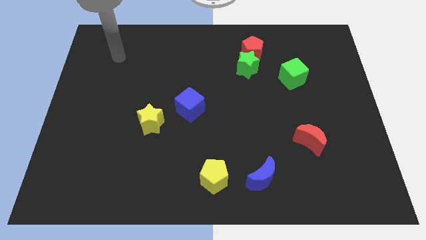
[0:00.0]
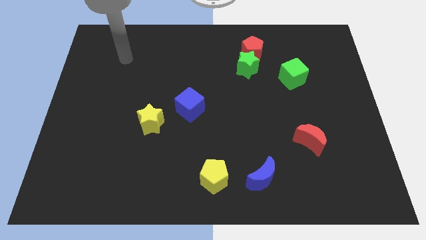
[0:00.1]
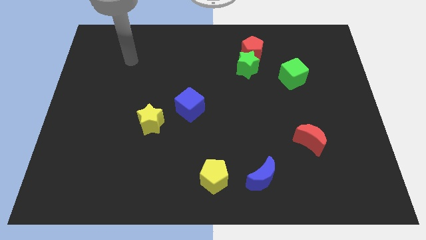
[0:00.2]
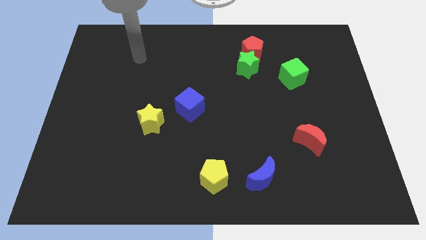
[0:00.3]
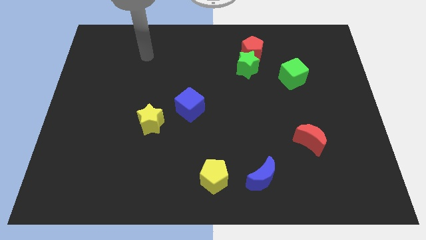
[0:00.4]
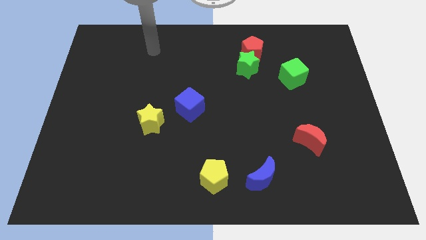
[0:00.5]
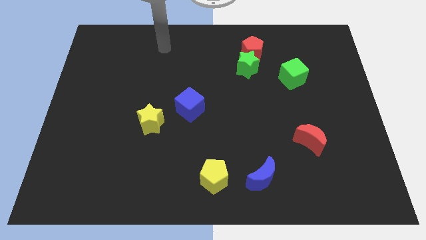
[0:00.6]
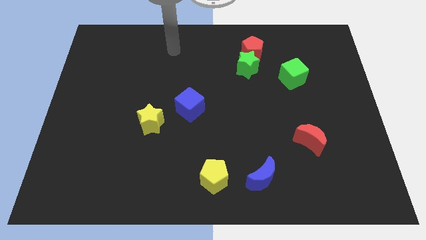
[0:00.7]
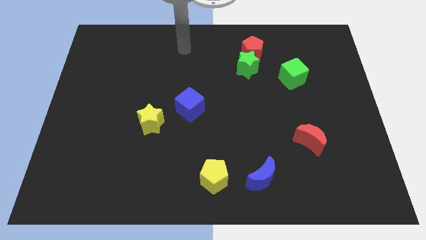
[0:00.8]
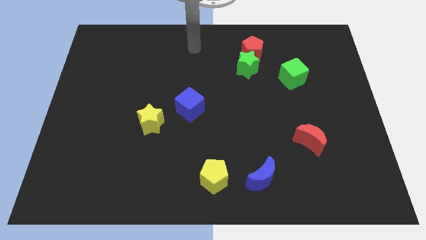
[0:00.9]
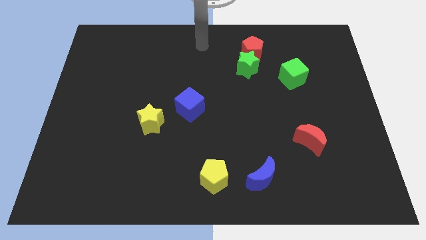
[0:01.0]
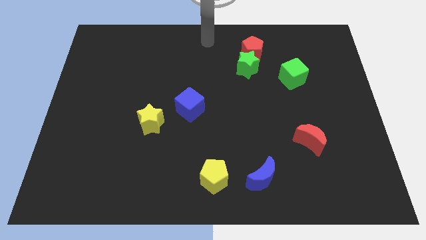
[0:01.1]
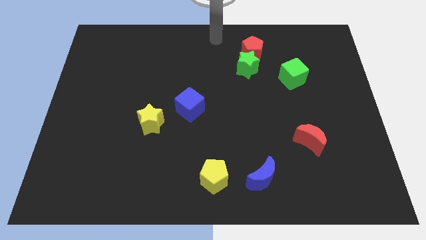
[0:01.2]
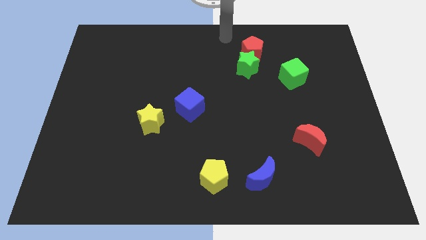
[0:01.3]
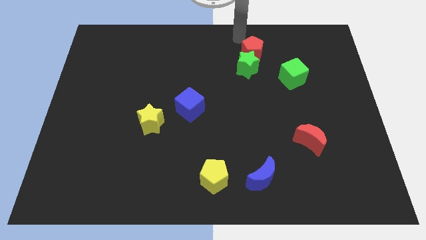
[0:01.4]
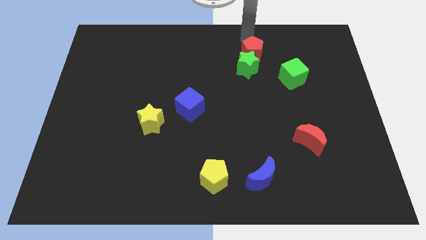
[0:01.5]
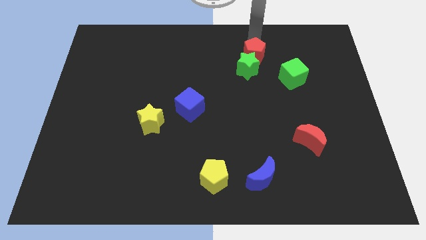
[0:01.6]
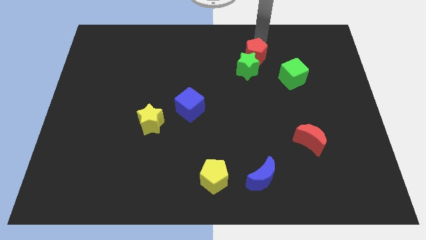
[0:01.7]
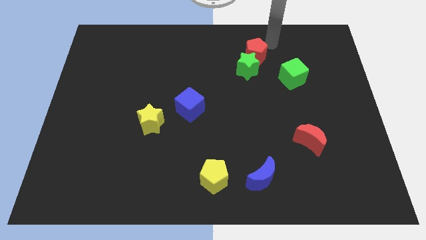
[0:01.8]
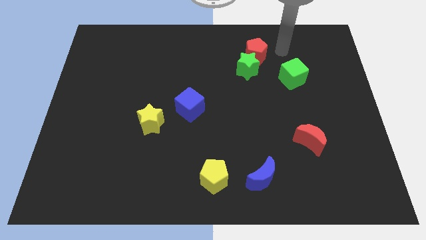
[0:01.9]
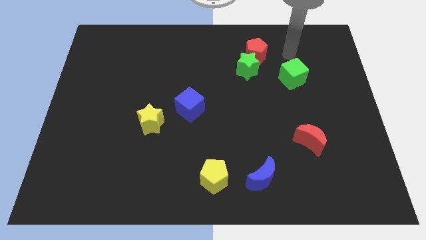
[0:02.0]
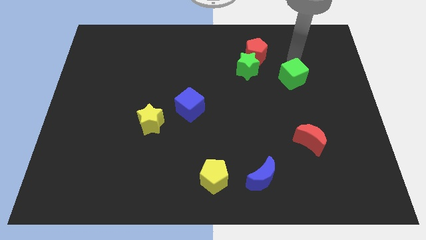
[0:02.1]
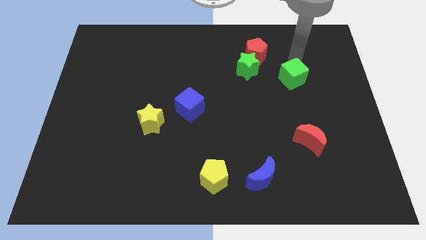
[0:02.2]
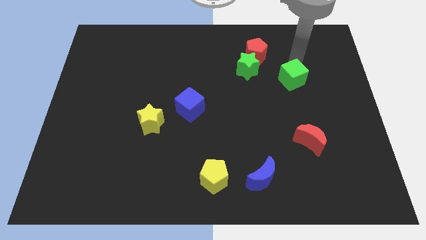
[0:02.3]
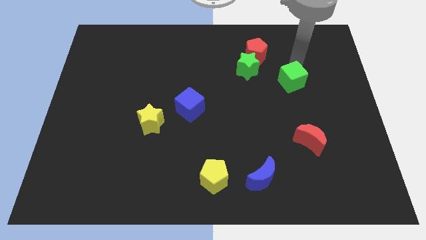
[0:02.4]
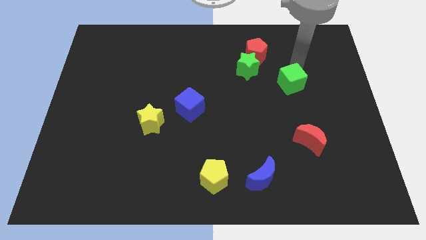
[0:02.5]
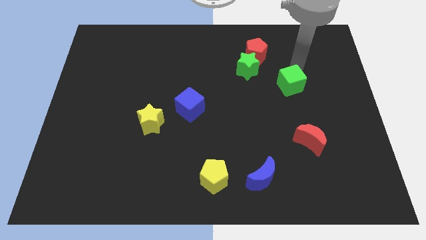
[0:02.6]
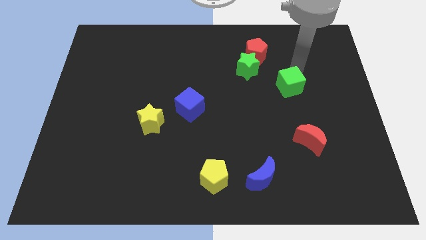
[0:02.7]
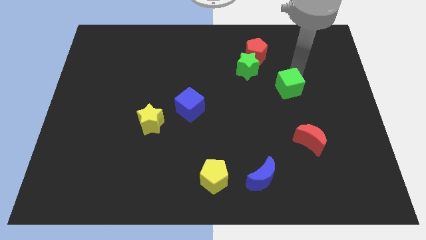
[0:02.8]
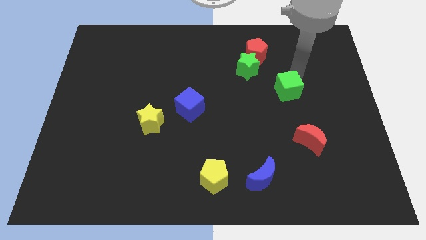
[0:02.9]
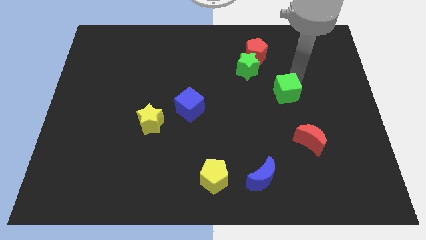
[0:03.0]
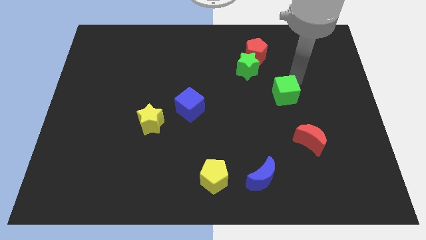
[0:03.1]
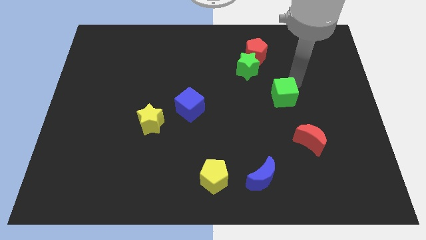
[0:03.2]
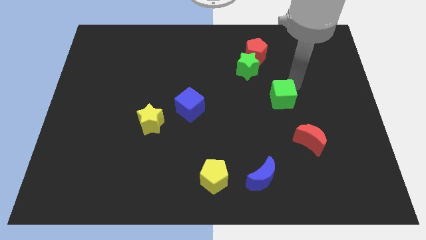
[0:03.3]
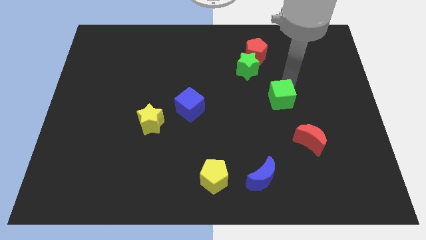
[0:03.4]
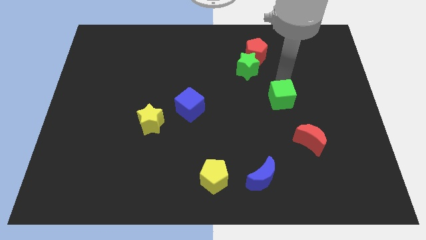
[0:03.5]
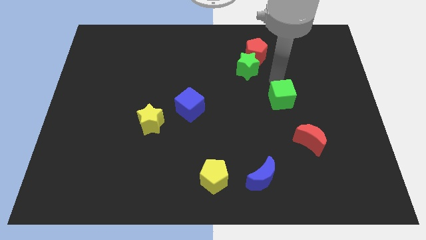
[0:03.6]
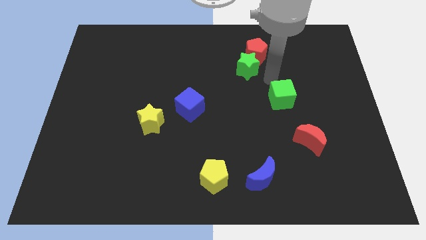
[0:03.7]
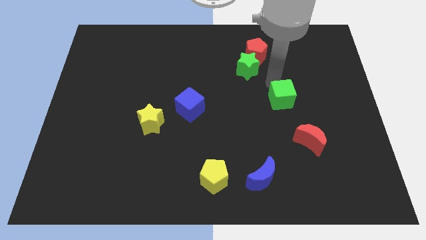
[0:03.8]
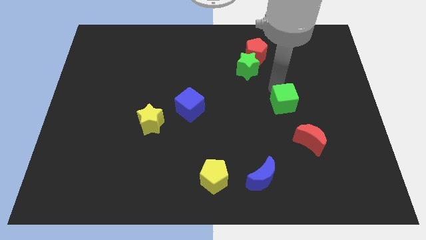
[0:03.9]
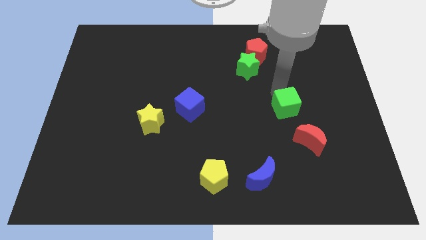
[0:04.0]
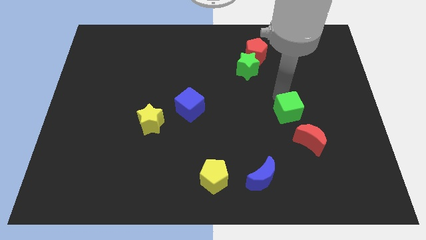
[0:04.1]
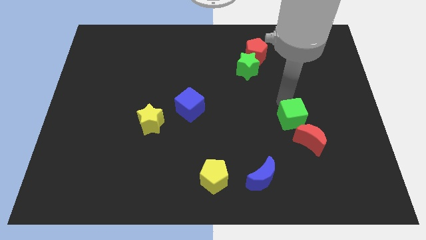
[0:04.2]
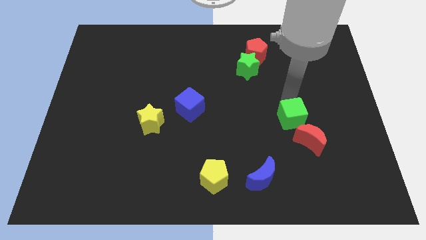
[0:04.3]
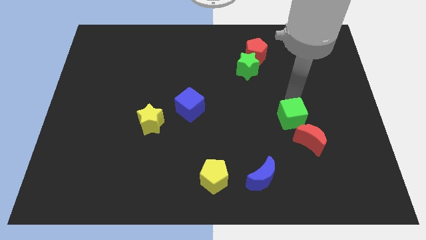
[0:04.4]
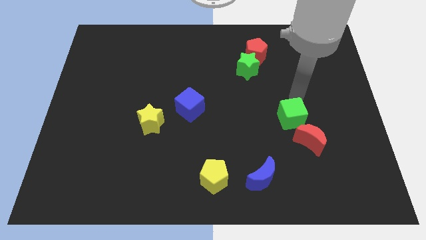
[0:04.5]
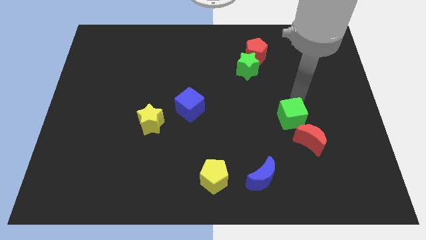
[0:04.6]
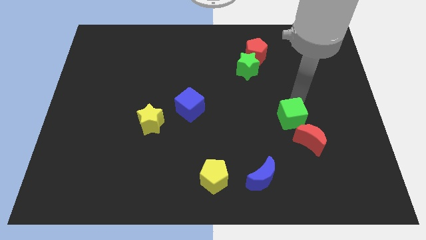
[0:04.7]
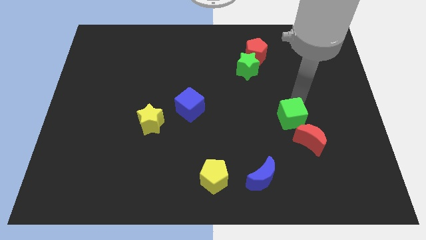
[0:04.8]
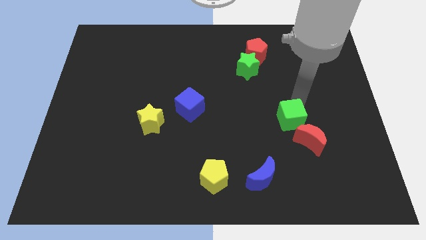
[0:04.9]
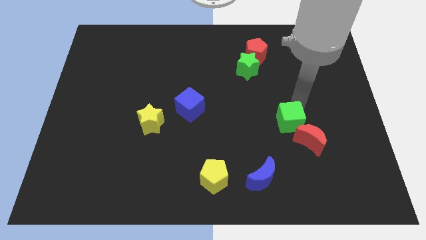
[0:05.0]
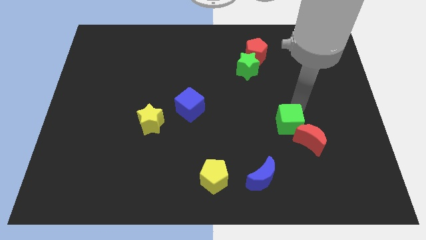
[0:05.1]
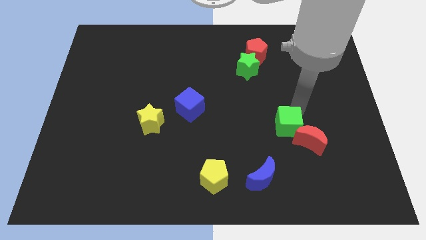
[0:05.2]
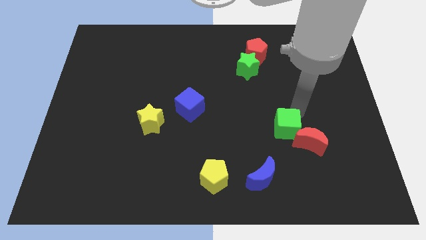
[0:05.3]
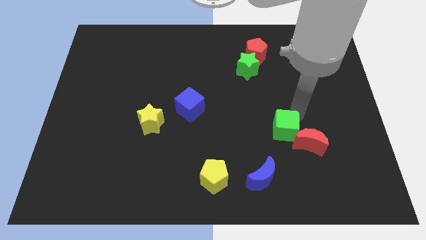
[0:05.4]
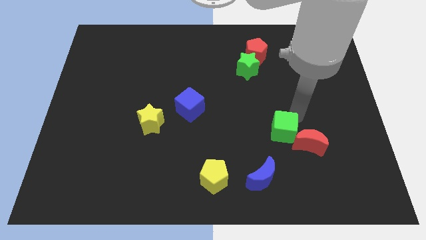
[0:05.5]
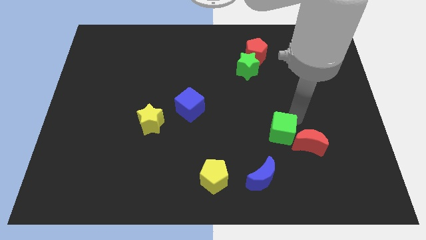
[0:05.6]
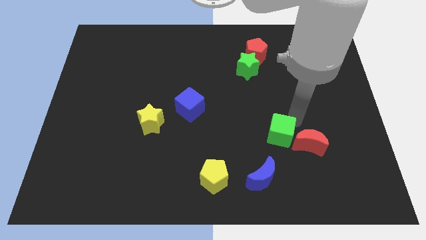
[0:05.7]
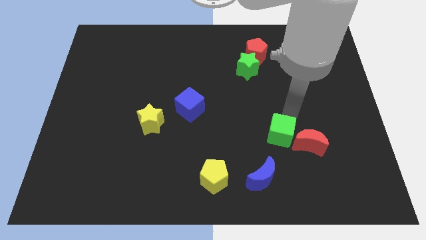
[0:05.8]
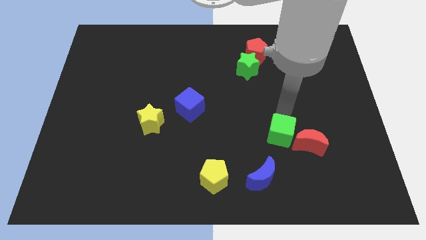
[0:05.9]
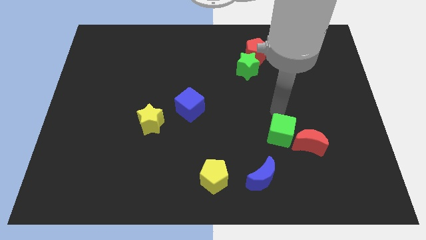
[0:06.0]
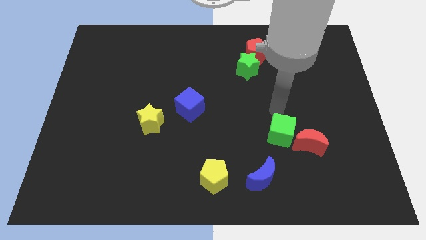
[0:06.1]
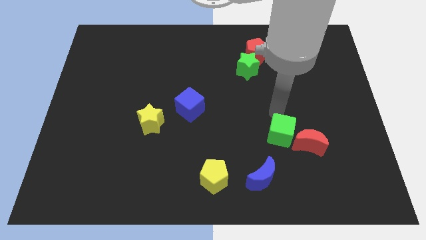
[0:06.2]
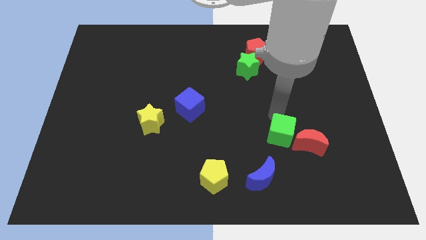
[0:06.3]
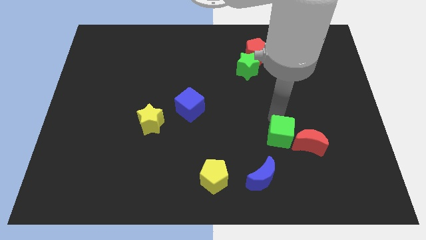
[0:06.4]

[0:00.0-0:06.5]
slide the green cube to the top right side of the blue moon
